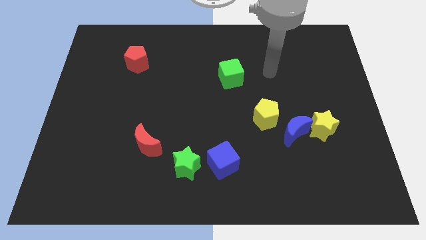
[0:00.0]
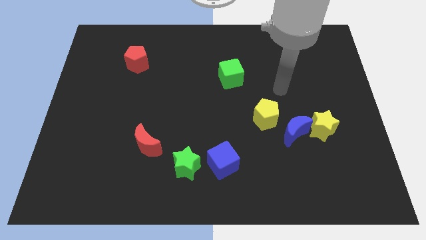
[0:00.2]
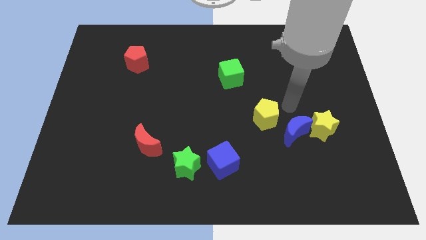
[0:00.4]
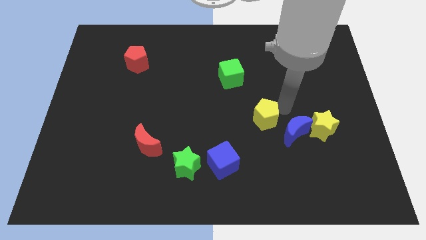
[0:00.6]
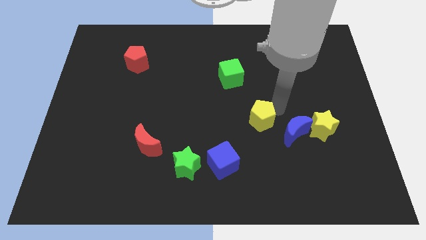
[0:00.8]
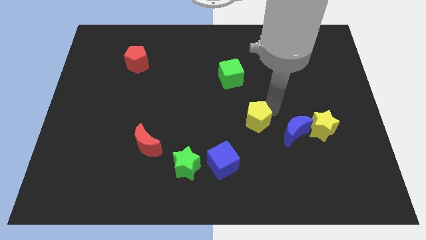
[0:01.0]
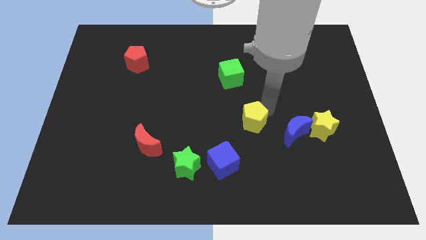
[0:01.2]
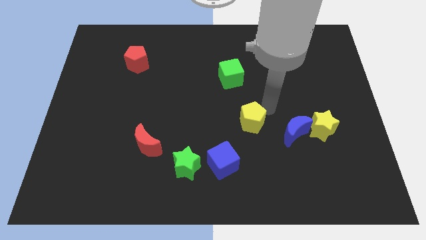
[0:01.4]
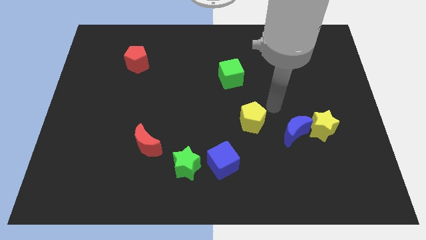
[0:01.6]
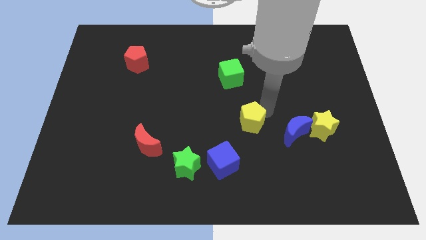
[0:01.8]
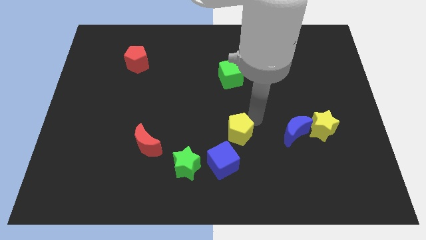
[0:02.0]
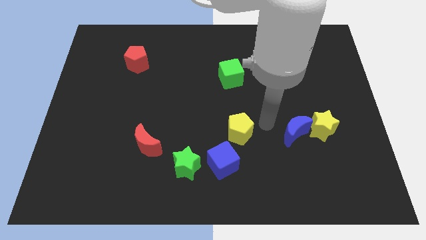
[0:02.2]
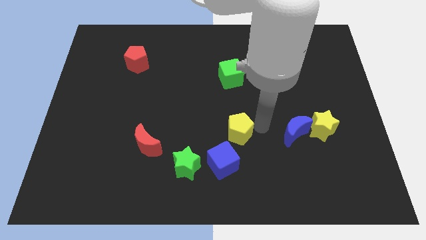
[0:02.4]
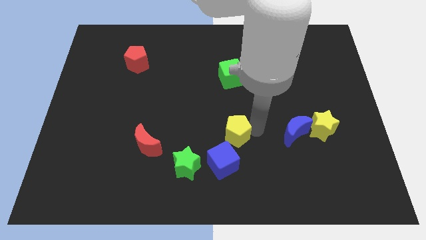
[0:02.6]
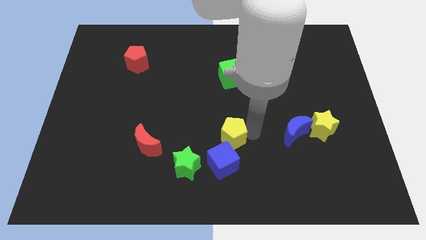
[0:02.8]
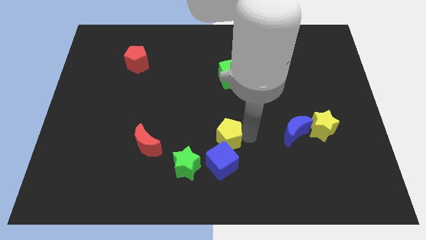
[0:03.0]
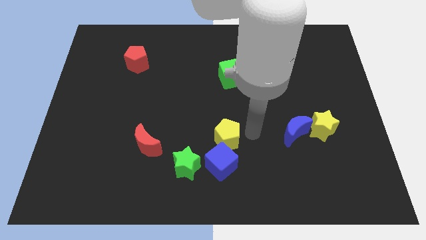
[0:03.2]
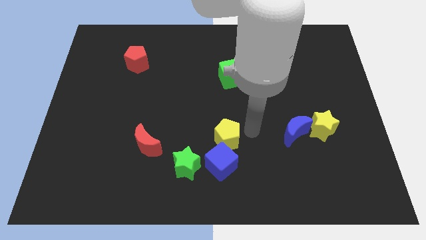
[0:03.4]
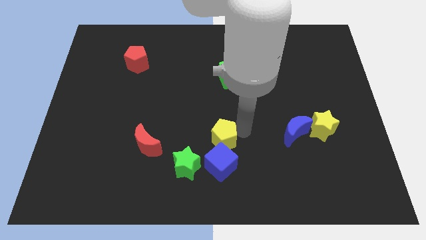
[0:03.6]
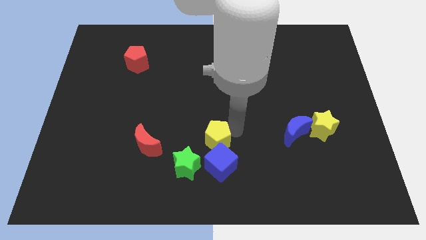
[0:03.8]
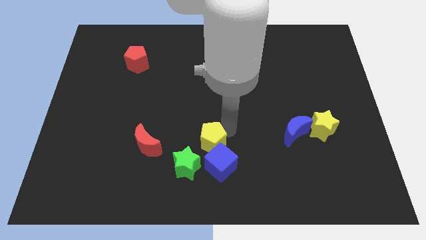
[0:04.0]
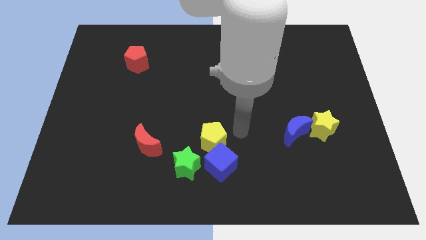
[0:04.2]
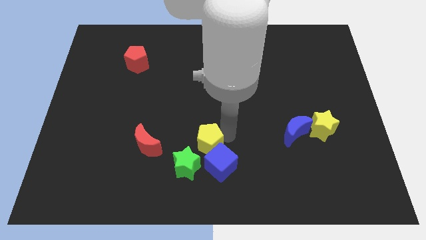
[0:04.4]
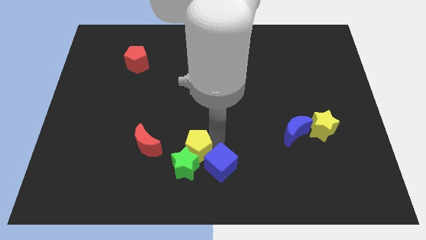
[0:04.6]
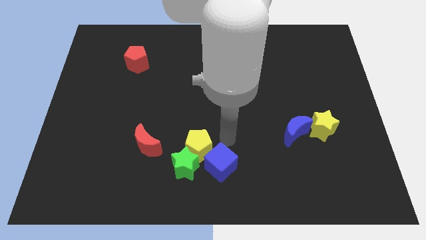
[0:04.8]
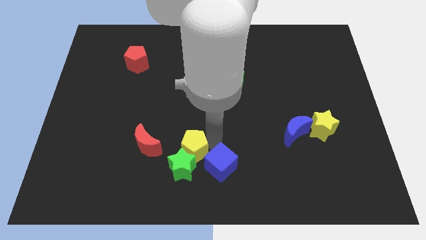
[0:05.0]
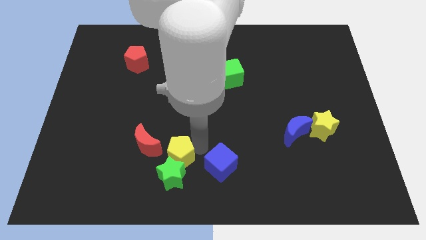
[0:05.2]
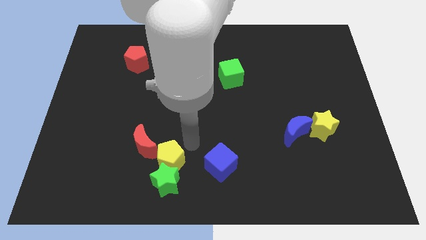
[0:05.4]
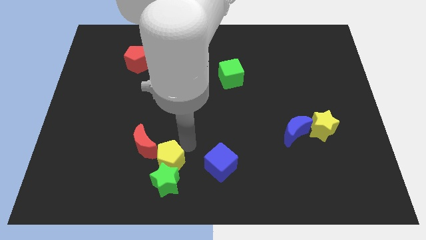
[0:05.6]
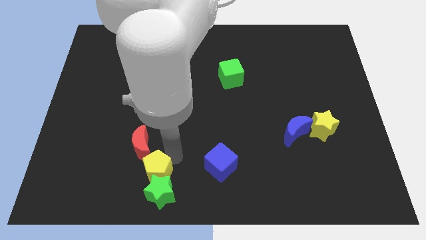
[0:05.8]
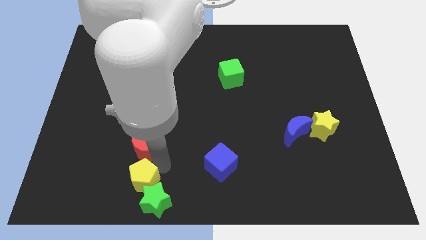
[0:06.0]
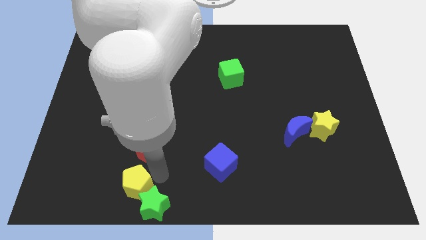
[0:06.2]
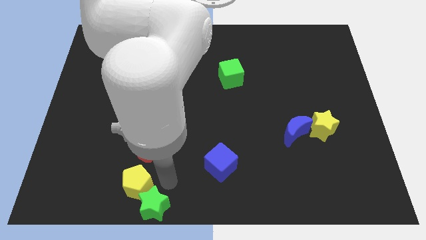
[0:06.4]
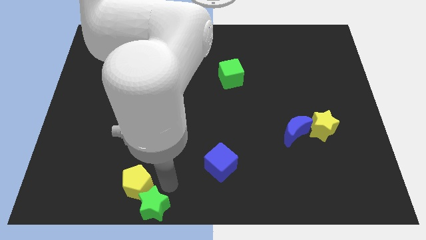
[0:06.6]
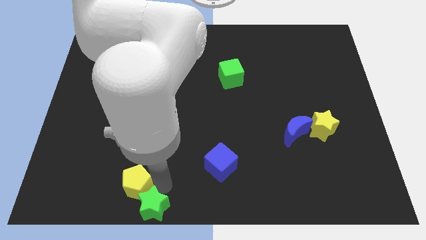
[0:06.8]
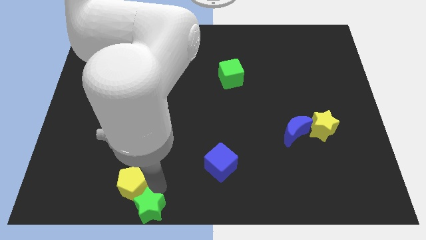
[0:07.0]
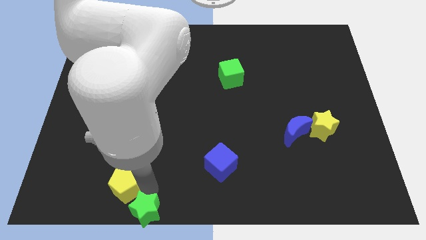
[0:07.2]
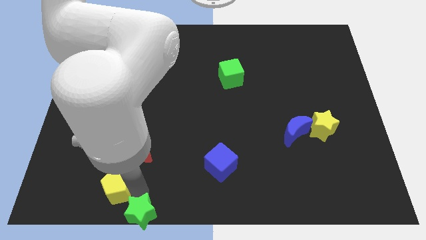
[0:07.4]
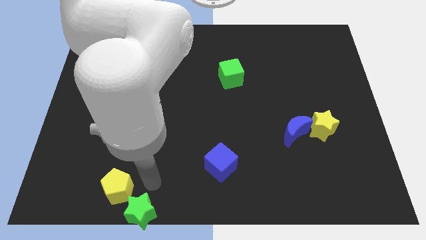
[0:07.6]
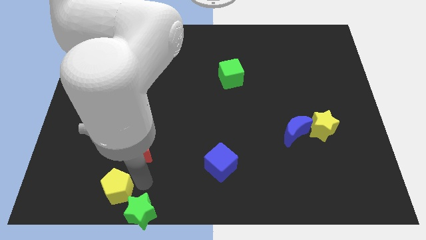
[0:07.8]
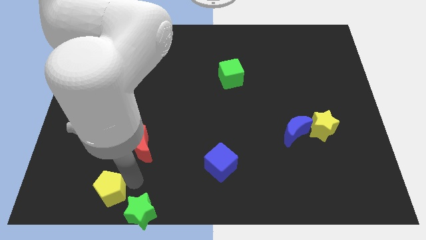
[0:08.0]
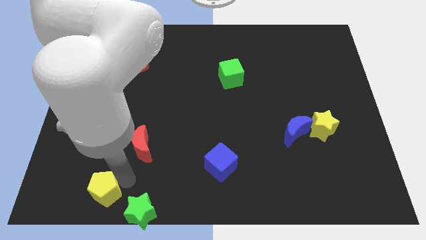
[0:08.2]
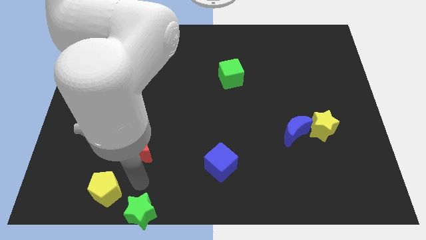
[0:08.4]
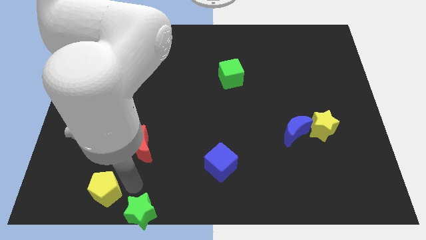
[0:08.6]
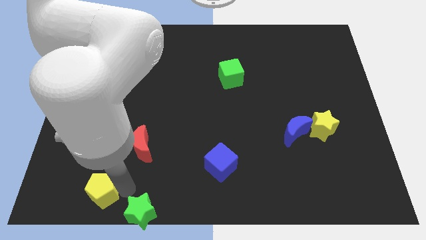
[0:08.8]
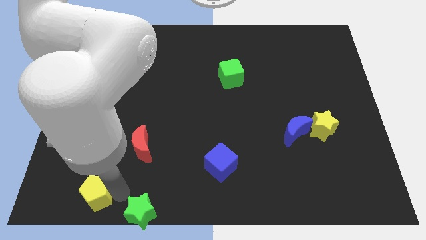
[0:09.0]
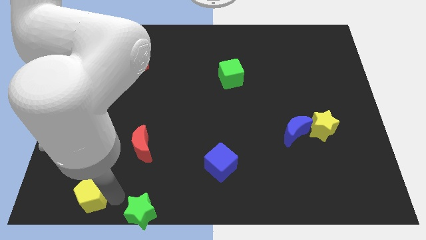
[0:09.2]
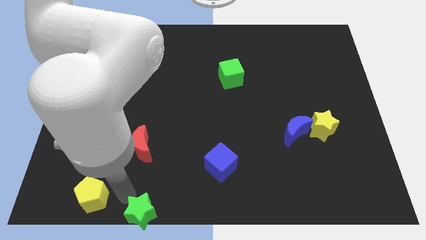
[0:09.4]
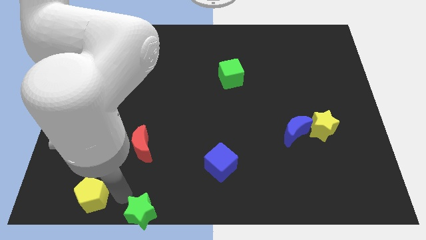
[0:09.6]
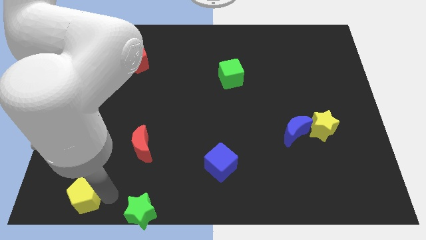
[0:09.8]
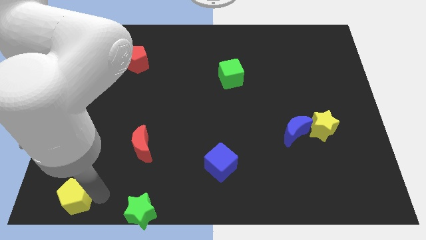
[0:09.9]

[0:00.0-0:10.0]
put the yellow pentagon to the bottom left corner

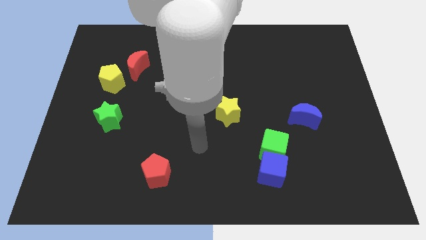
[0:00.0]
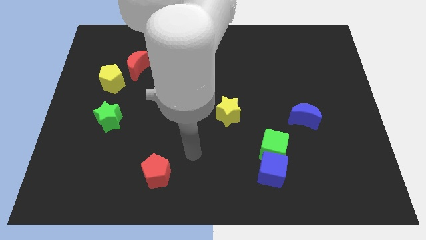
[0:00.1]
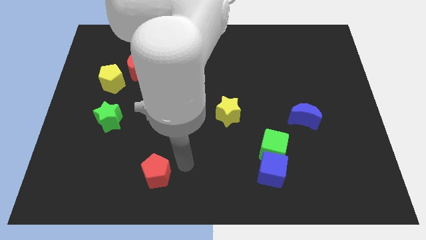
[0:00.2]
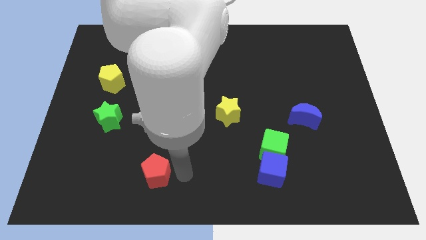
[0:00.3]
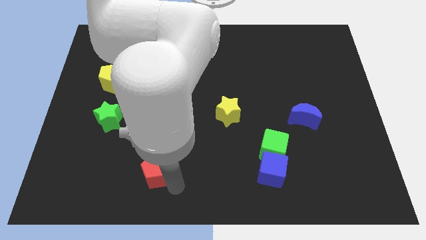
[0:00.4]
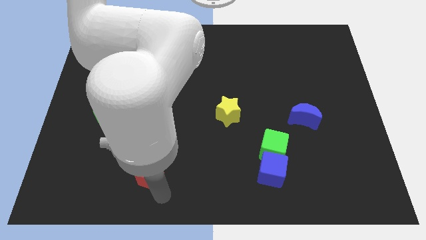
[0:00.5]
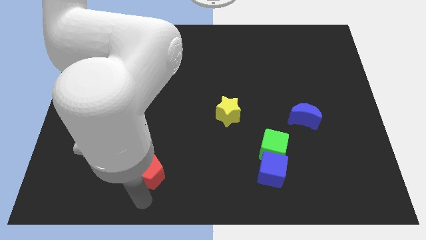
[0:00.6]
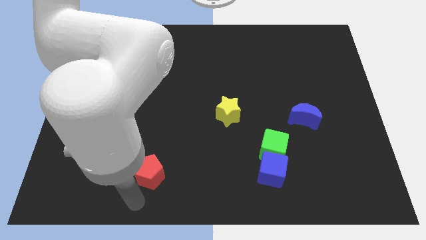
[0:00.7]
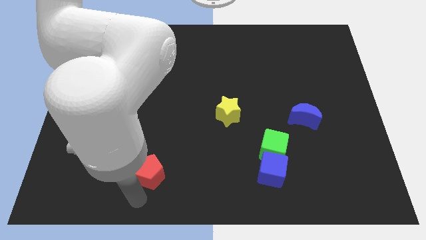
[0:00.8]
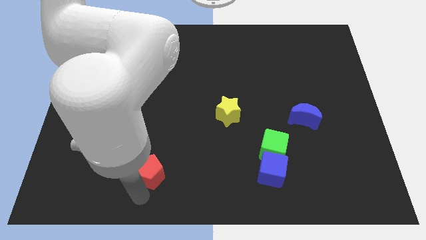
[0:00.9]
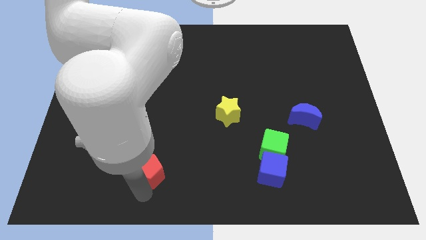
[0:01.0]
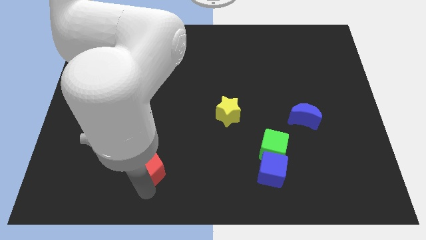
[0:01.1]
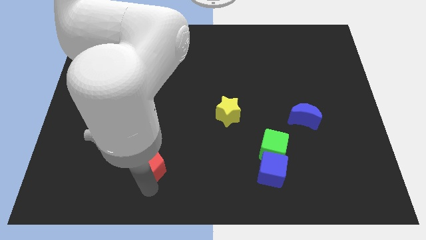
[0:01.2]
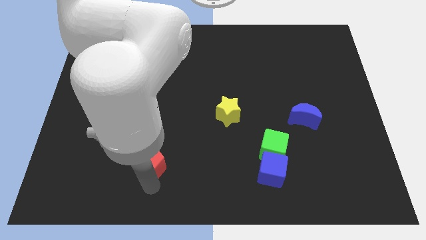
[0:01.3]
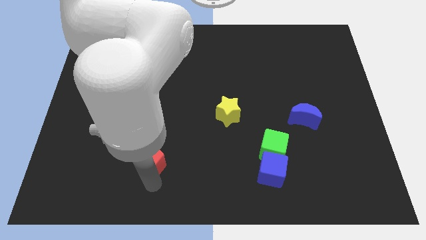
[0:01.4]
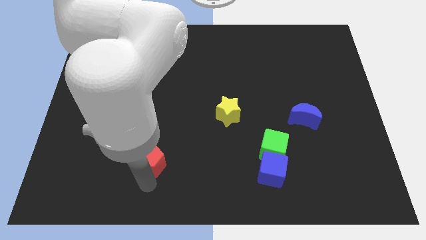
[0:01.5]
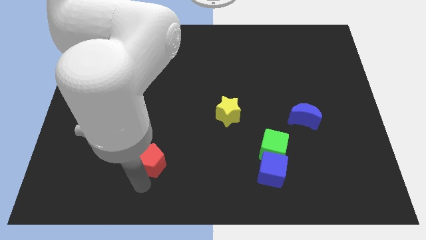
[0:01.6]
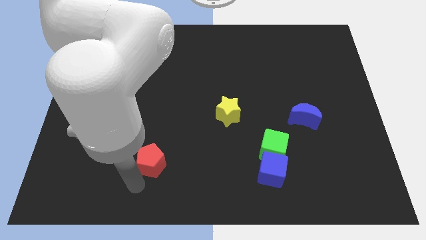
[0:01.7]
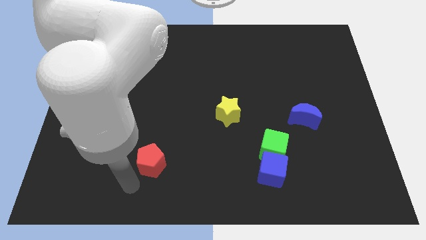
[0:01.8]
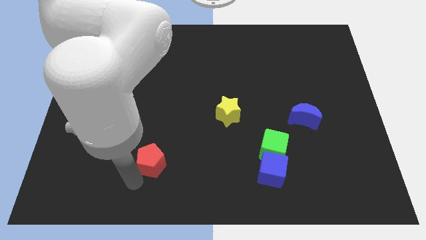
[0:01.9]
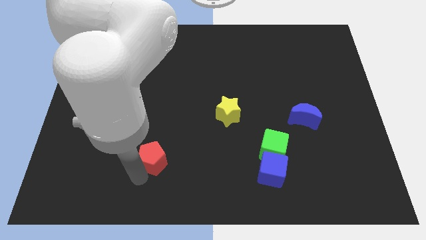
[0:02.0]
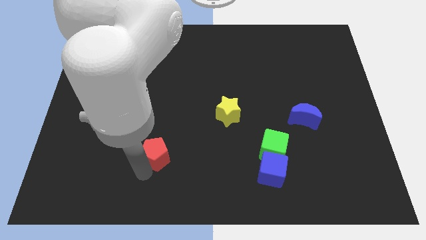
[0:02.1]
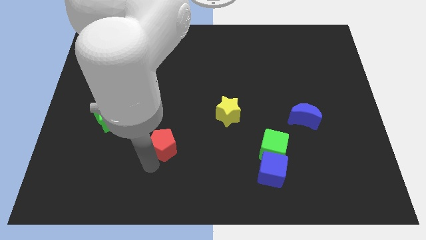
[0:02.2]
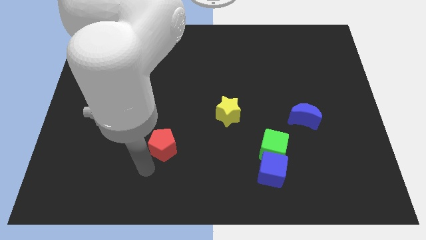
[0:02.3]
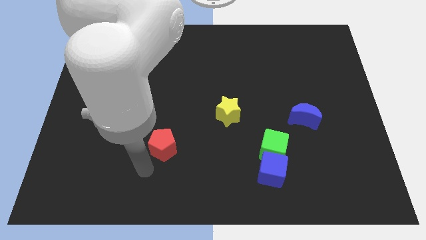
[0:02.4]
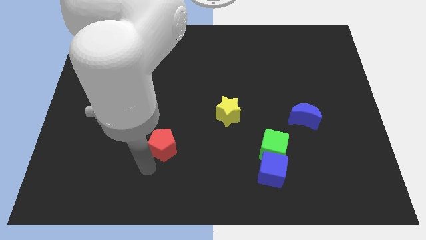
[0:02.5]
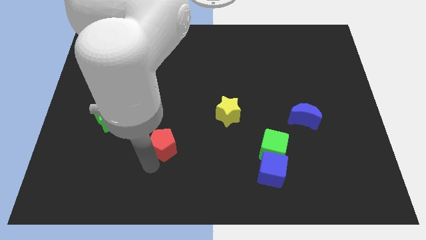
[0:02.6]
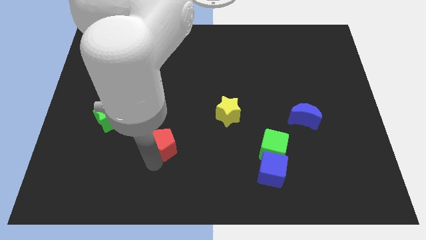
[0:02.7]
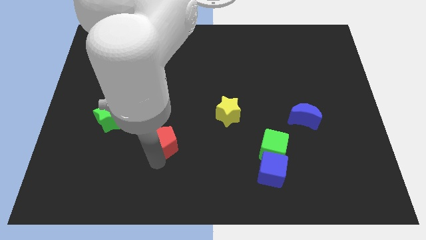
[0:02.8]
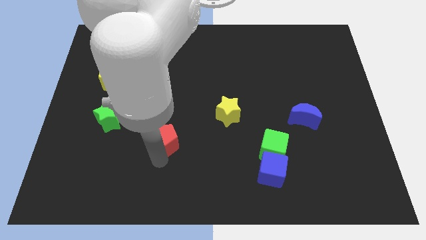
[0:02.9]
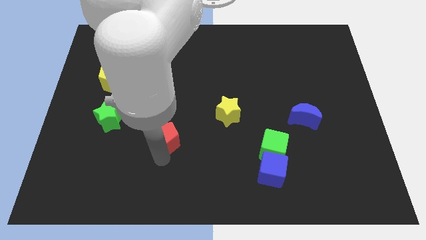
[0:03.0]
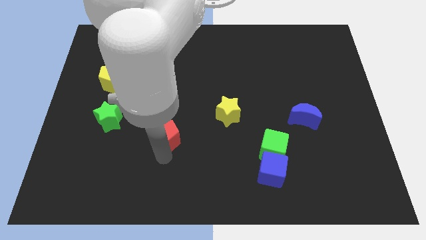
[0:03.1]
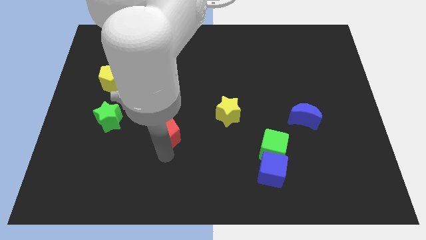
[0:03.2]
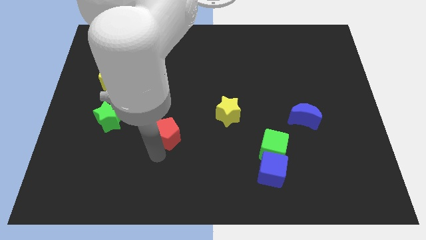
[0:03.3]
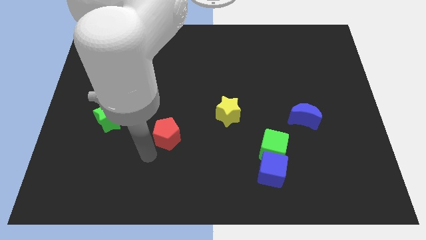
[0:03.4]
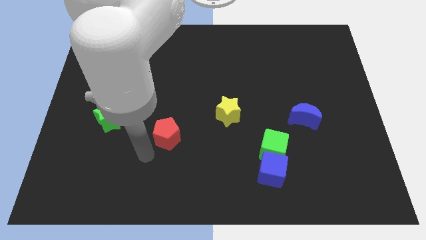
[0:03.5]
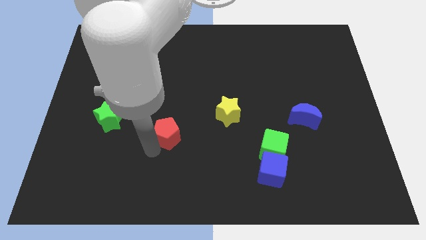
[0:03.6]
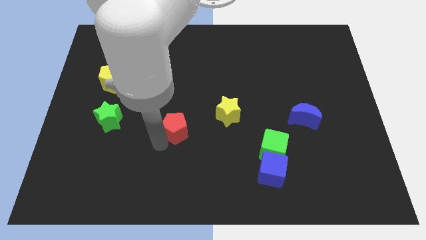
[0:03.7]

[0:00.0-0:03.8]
push the red pentagon to the middle of the board
